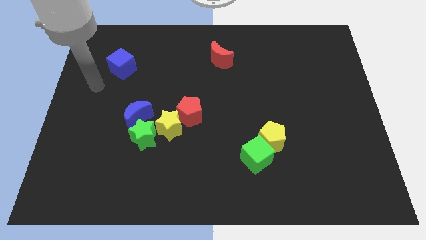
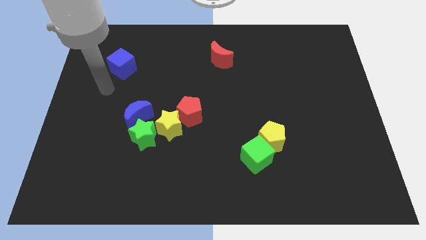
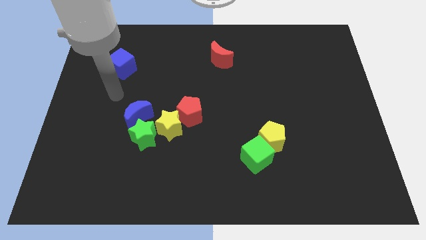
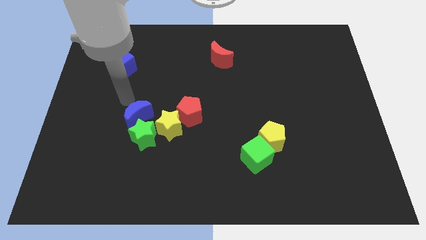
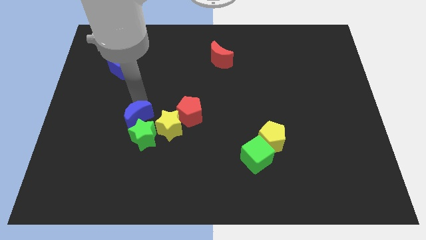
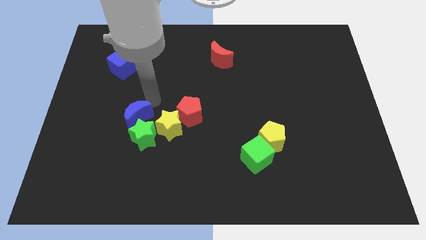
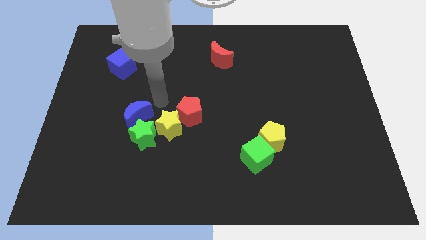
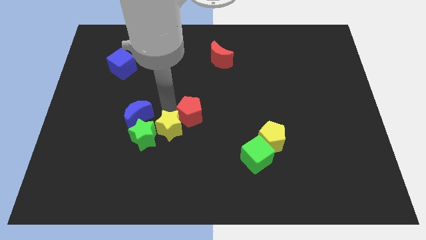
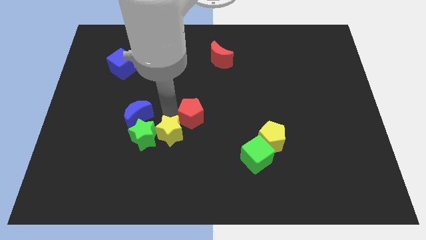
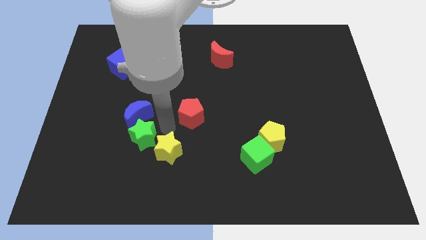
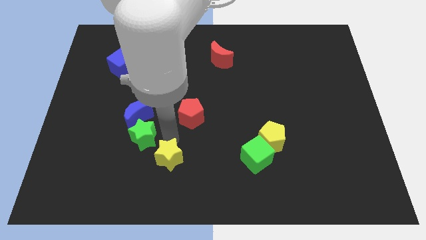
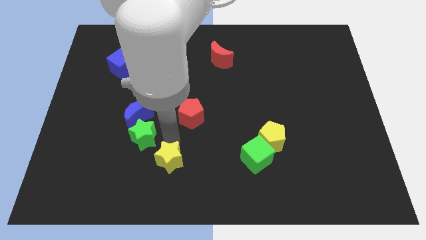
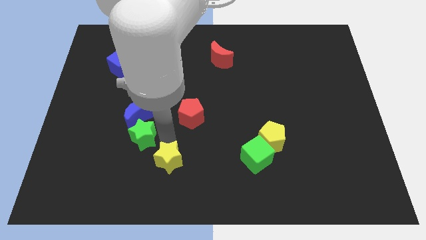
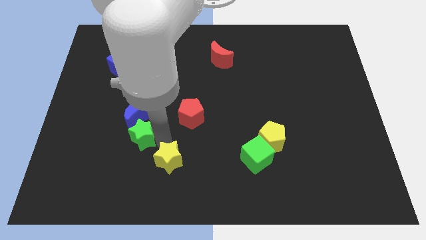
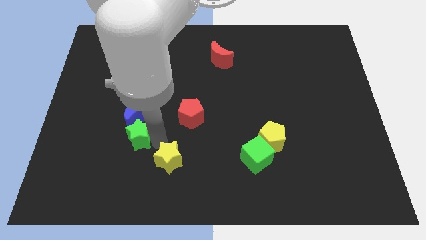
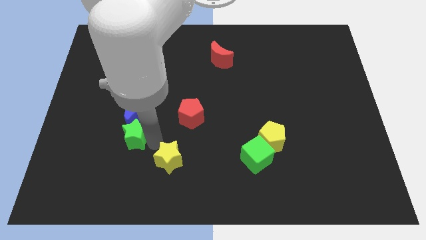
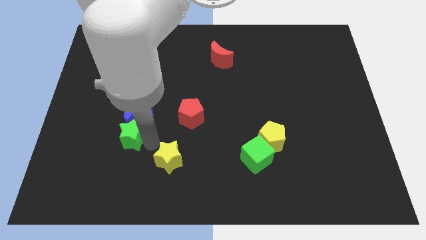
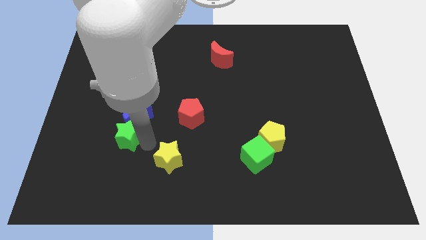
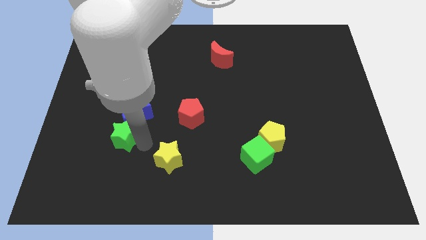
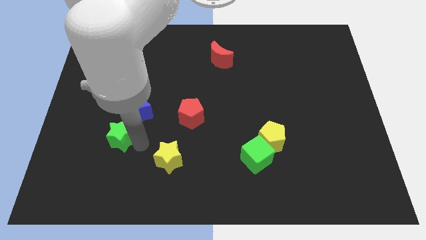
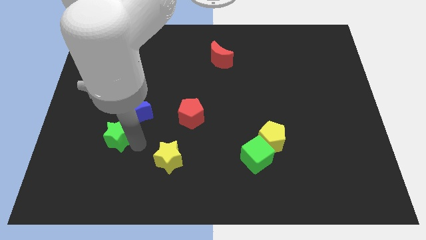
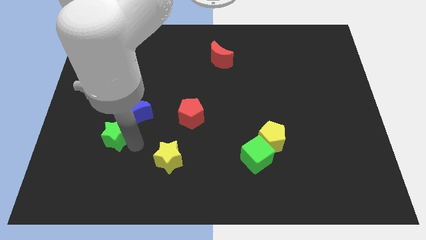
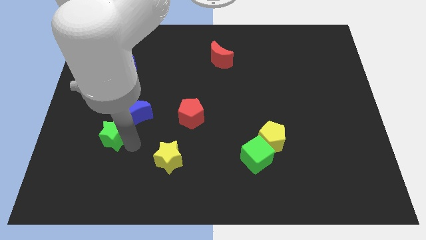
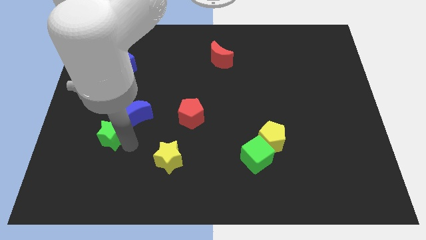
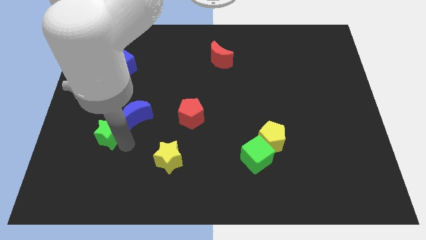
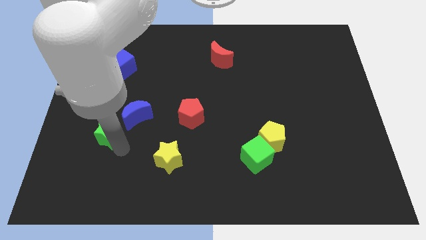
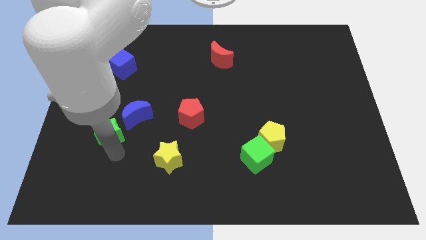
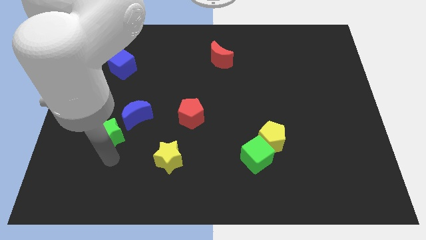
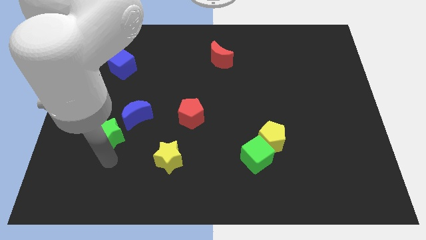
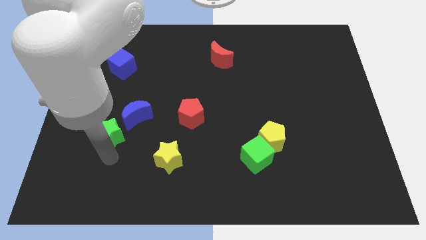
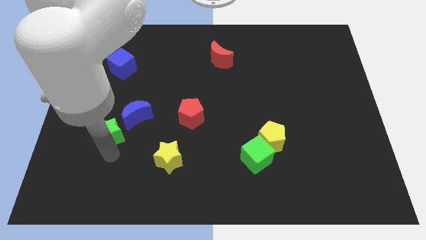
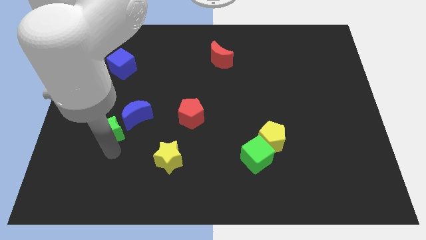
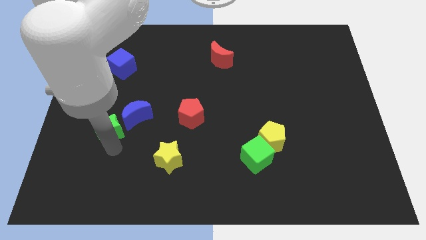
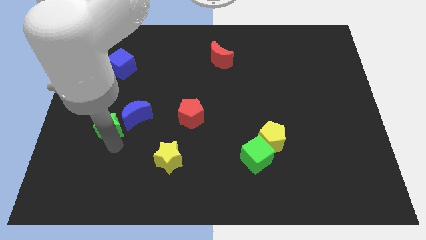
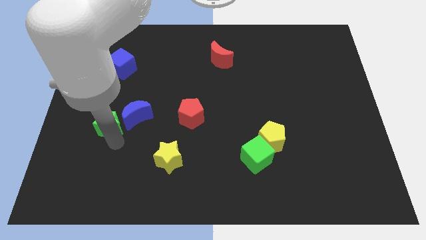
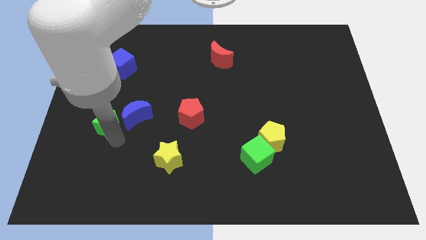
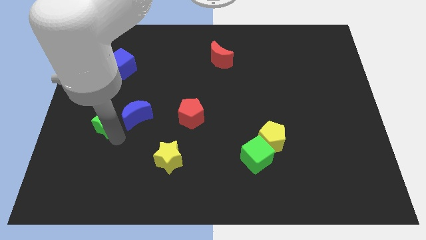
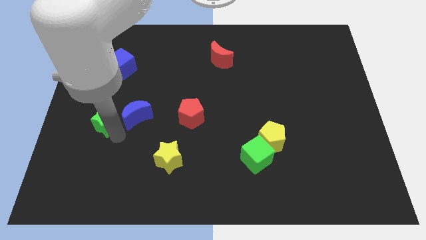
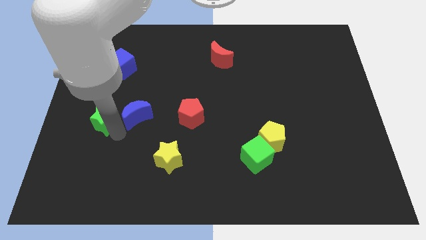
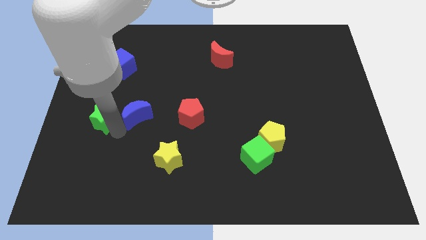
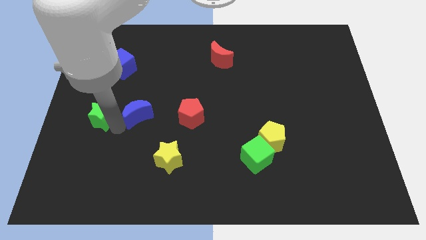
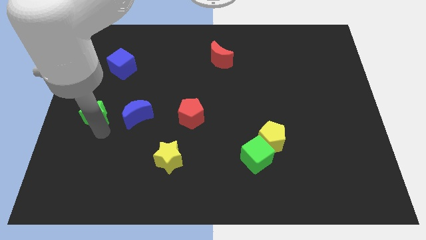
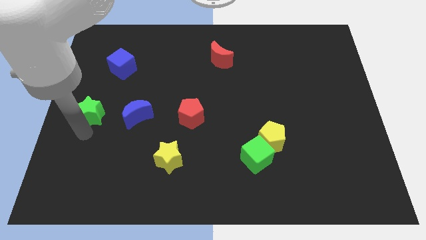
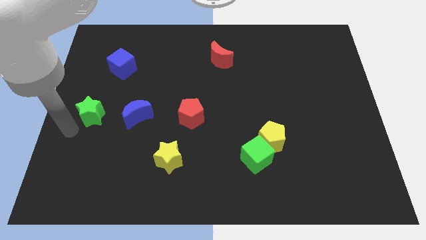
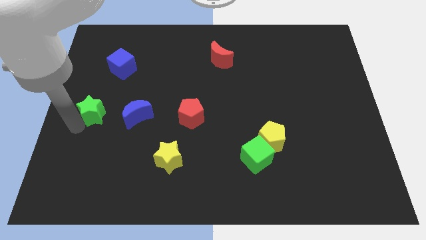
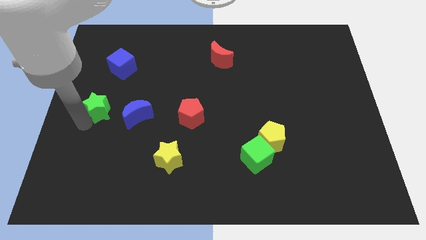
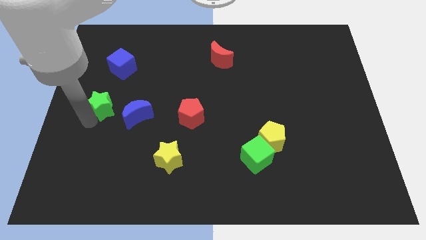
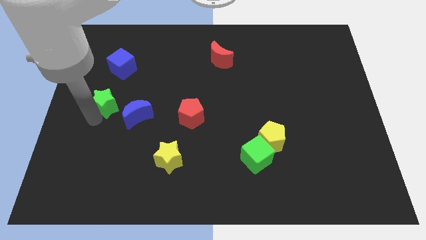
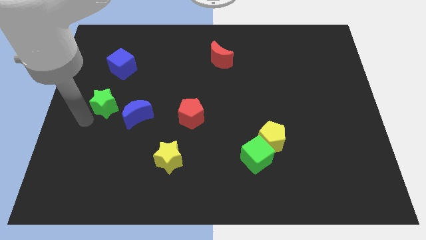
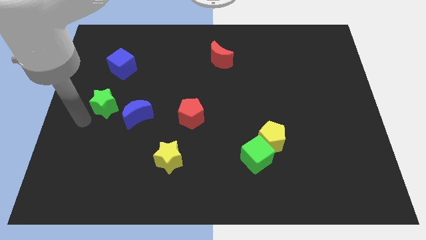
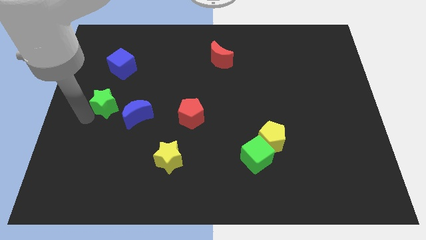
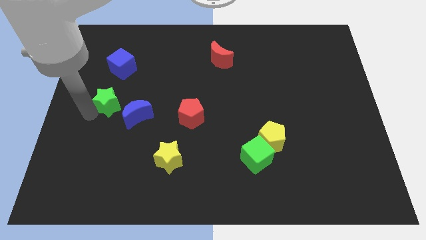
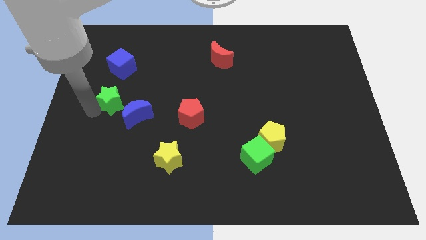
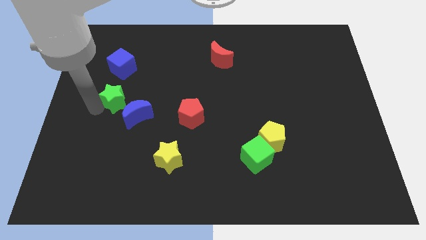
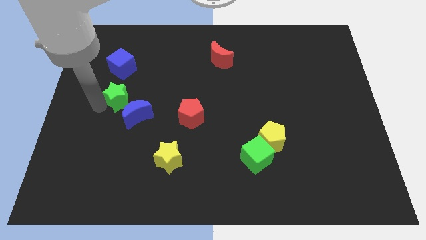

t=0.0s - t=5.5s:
move the green star to the top of the blue moon

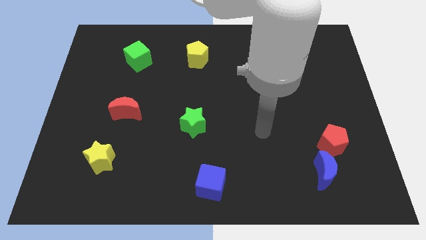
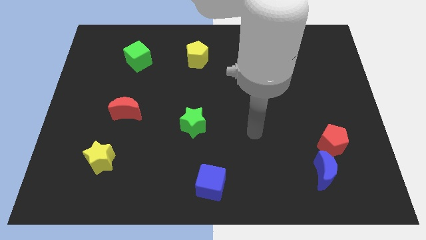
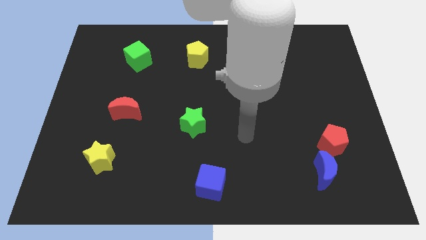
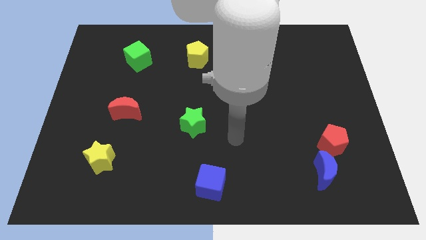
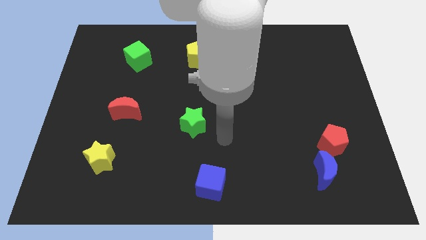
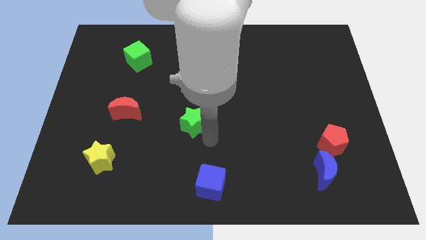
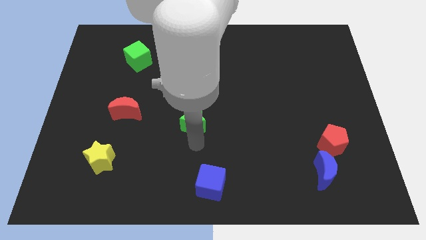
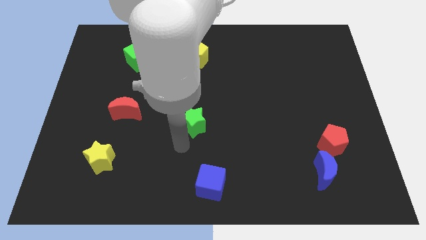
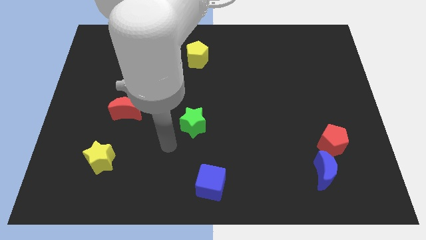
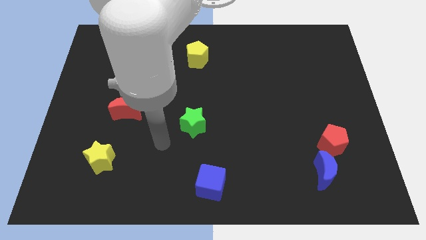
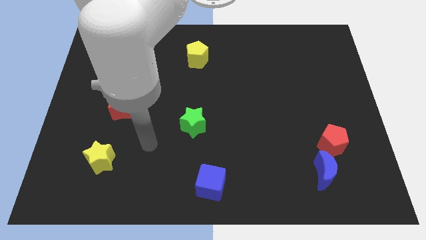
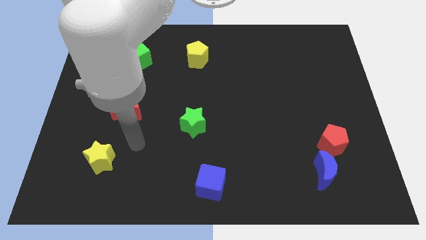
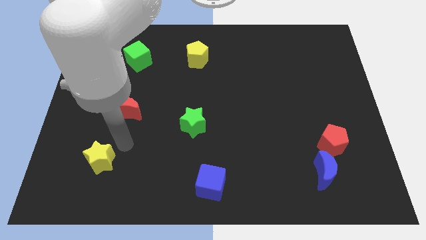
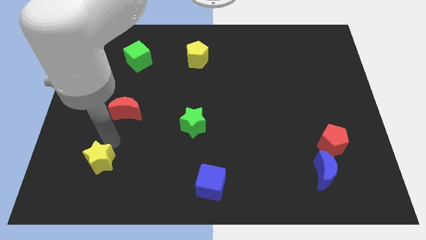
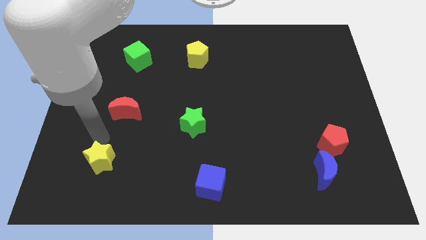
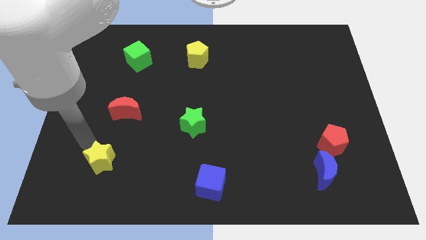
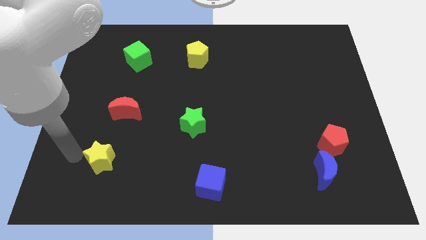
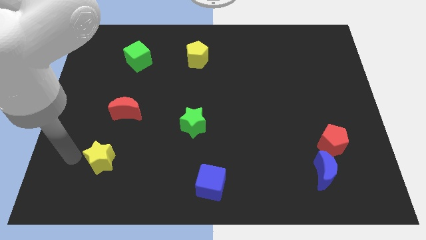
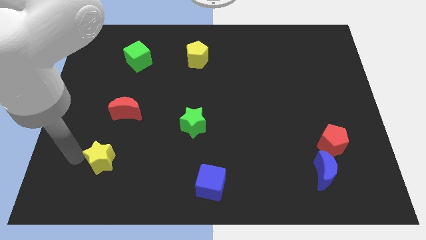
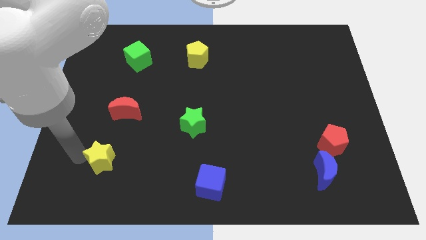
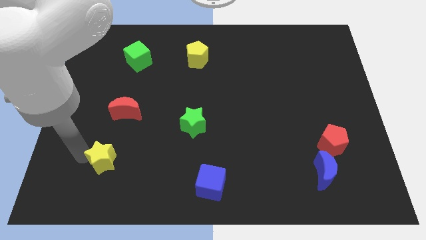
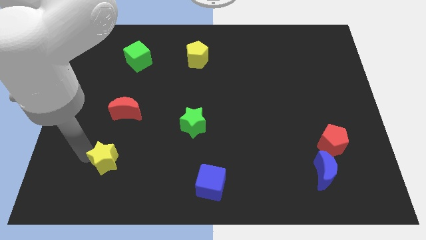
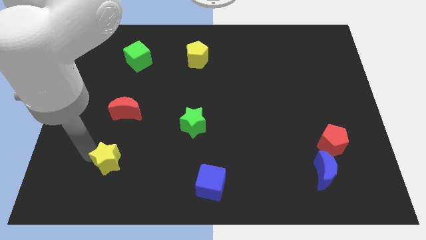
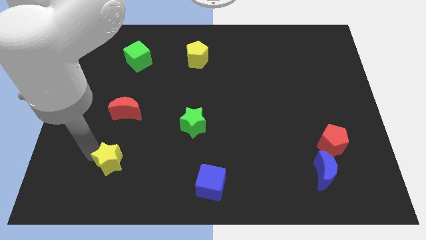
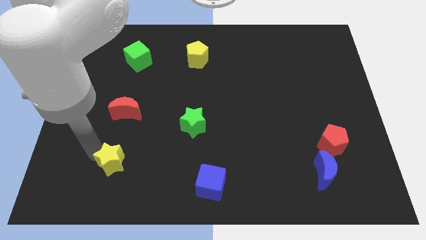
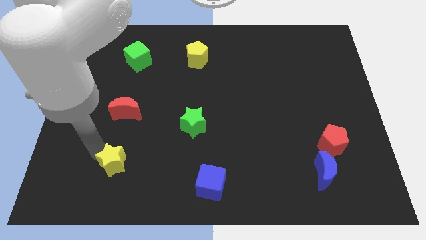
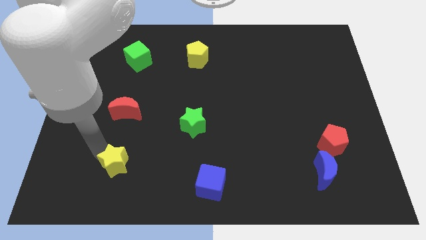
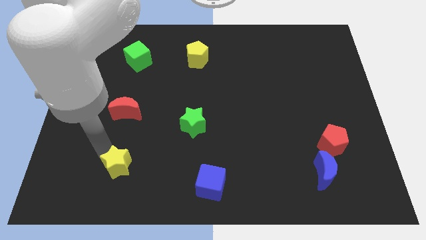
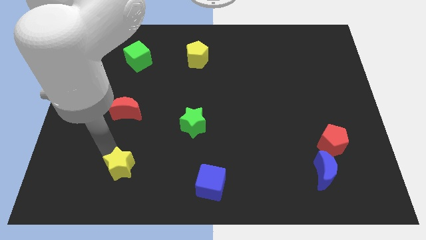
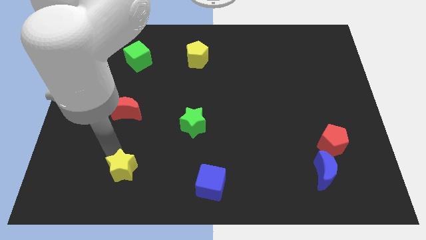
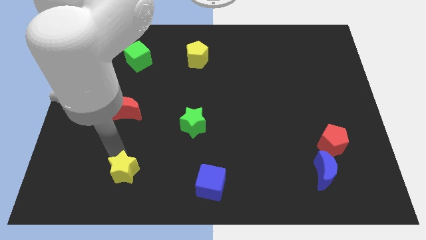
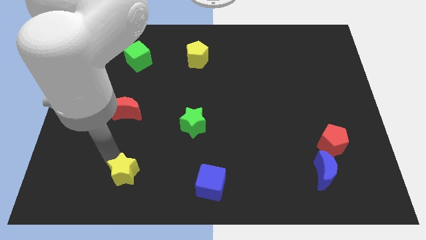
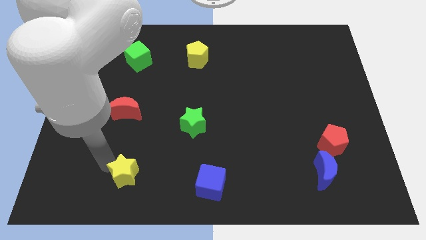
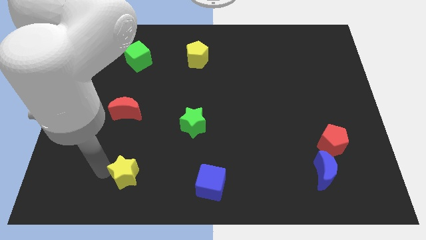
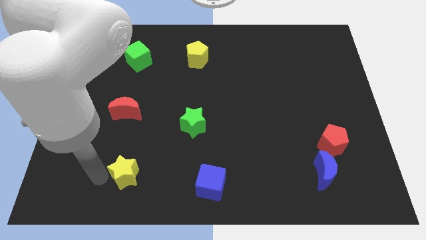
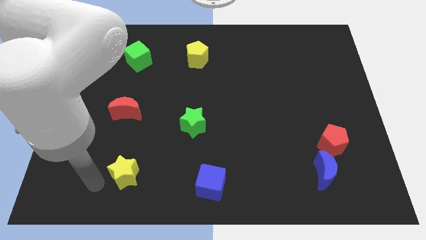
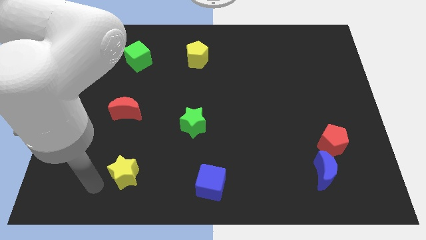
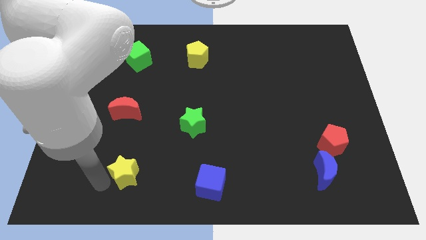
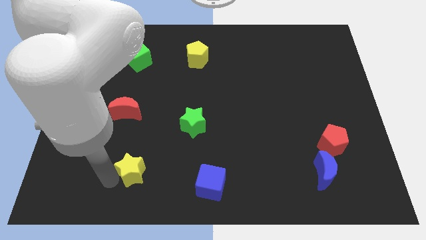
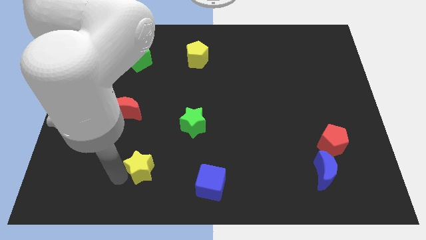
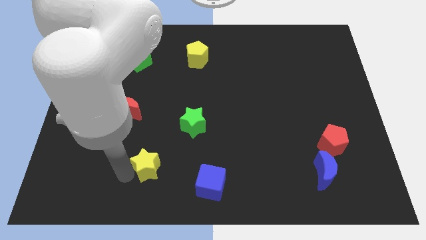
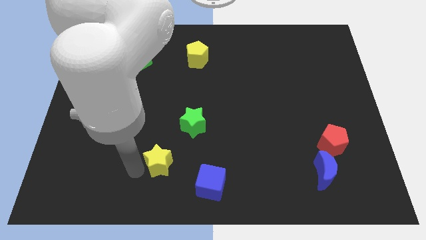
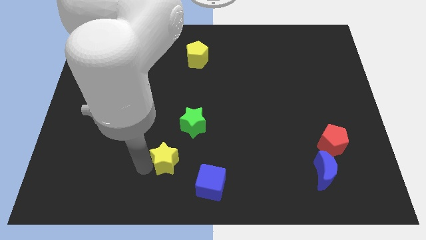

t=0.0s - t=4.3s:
move the yellow star to the top left of the blue cube
